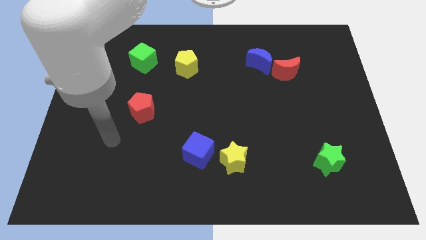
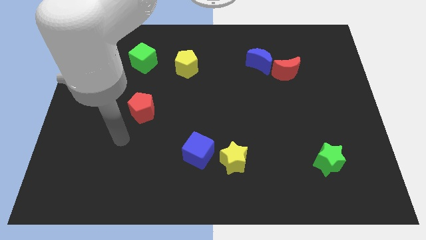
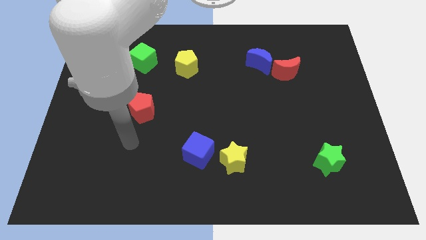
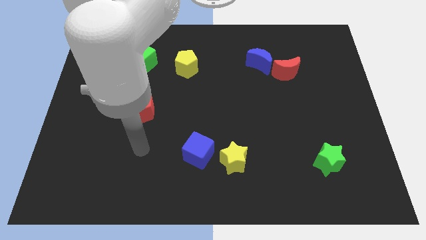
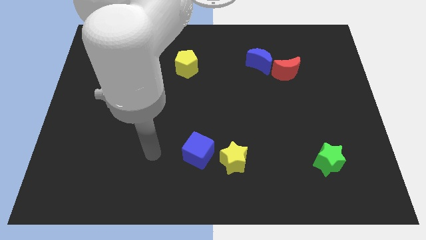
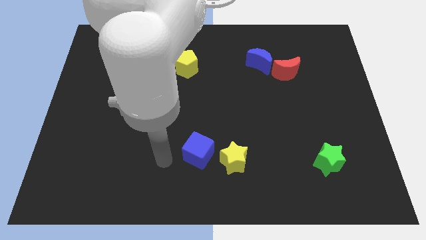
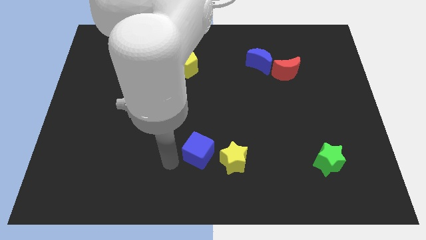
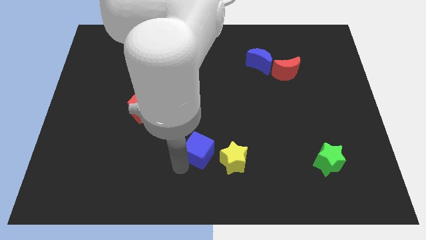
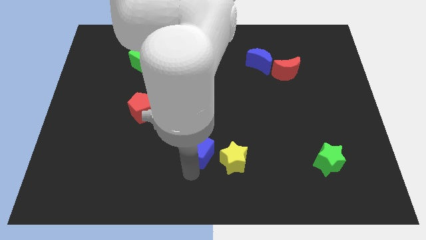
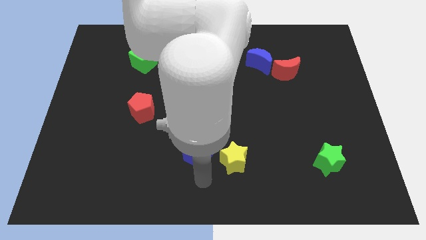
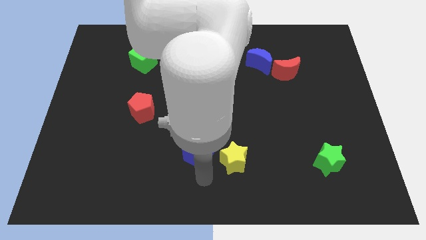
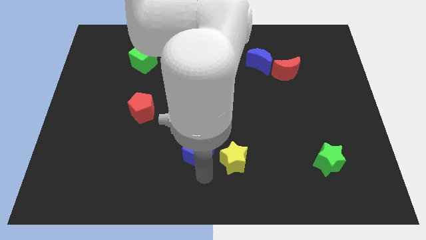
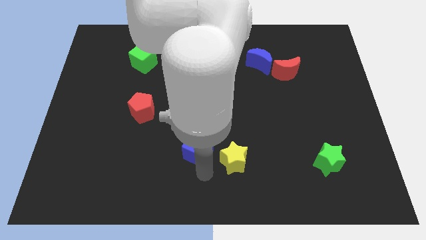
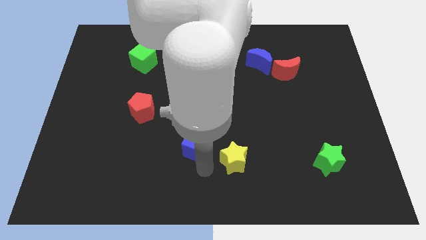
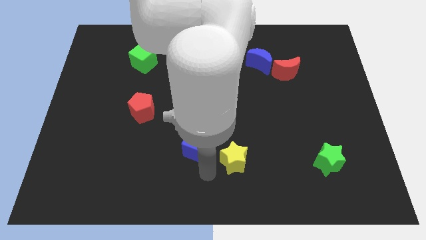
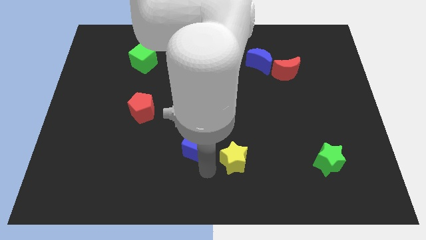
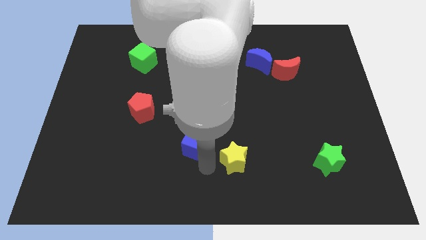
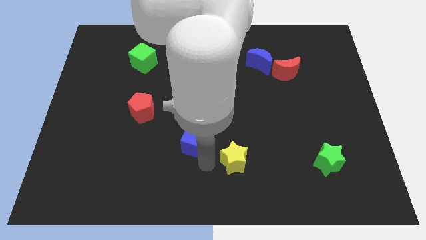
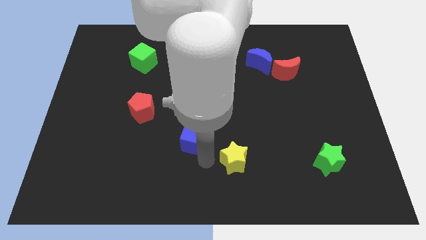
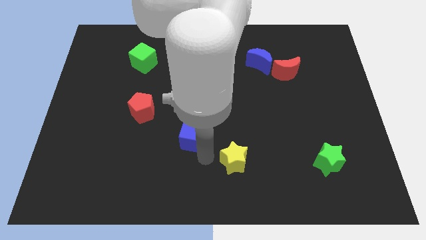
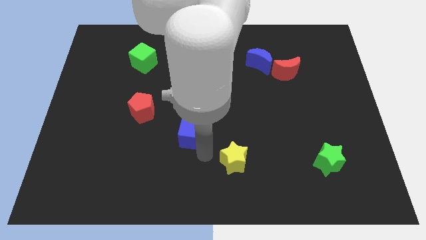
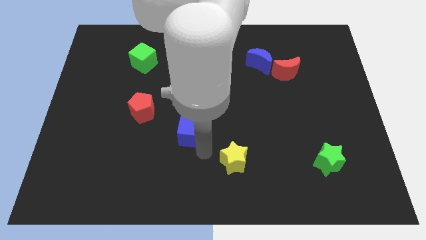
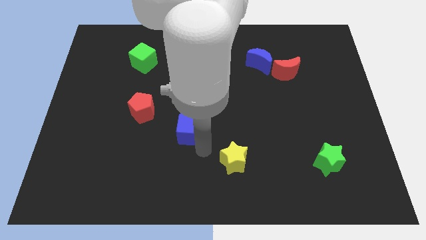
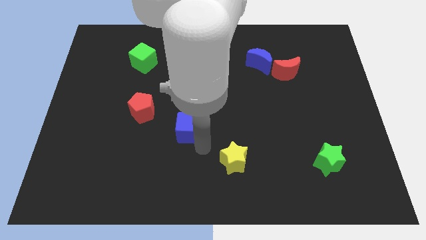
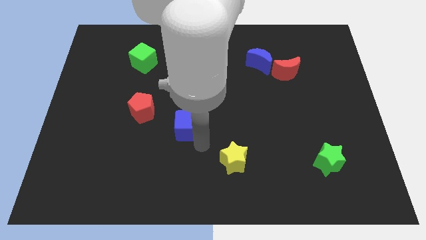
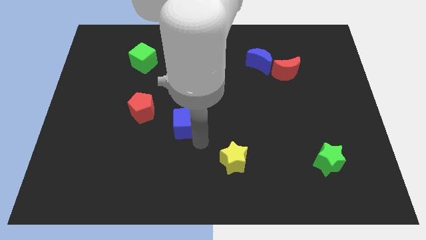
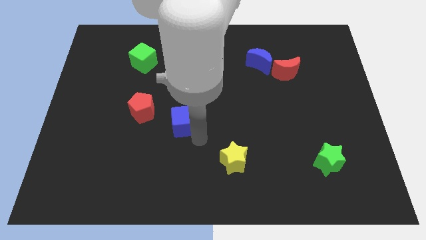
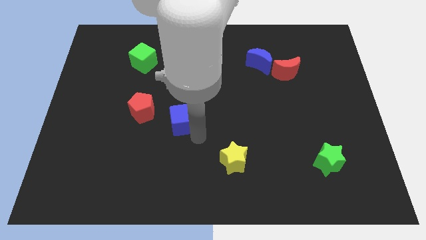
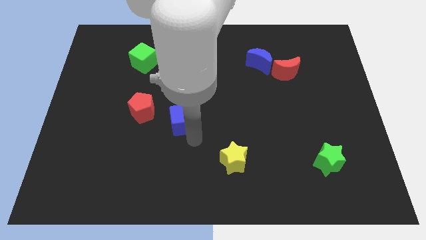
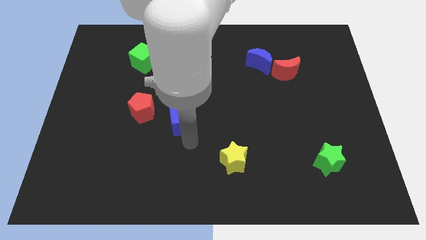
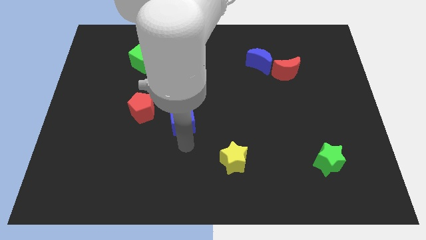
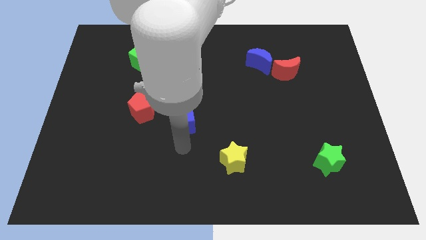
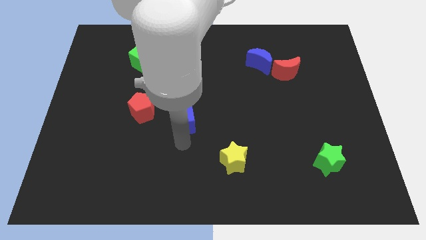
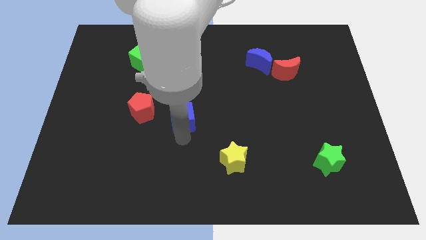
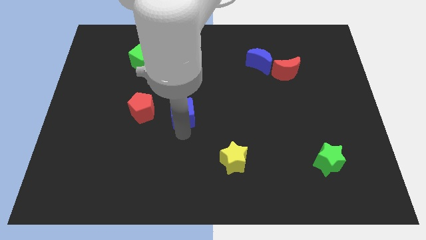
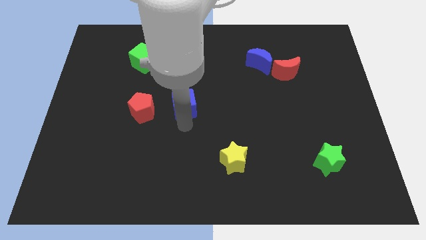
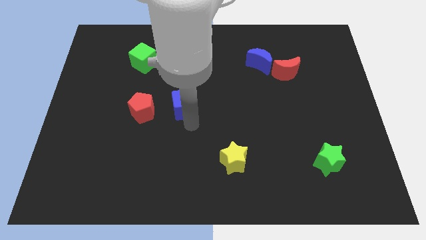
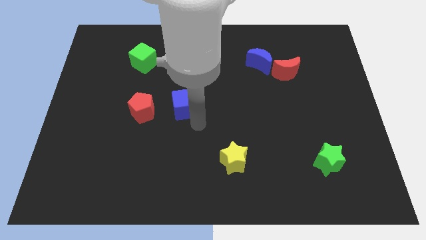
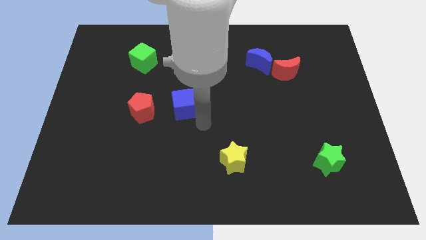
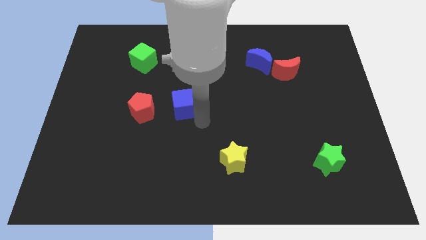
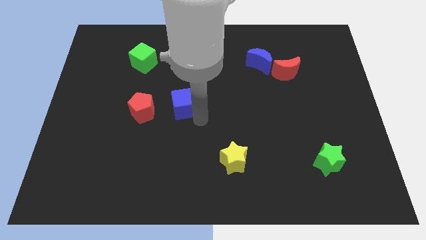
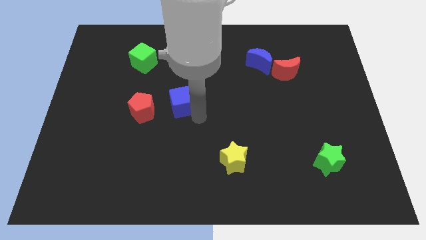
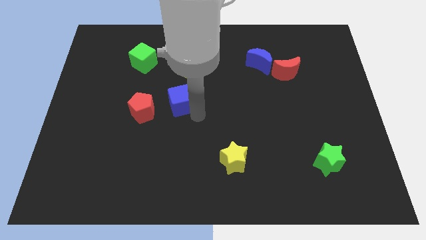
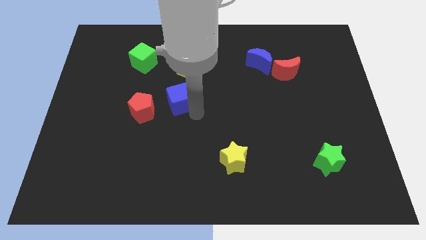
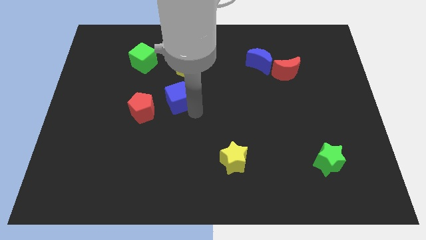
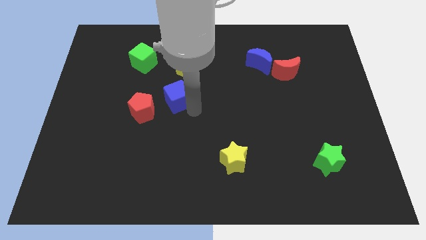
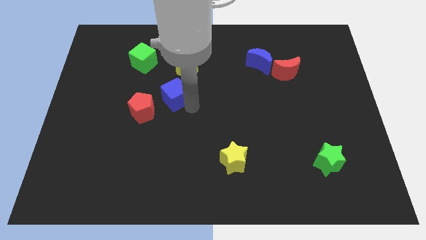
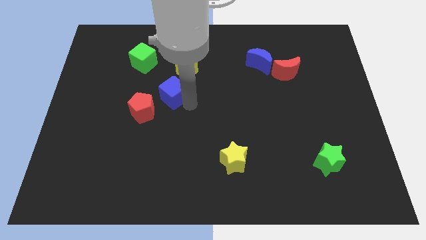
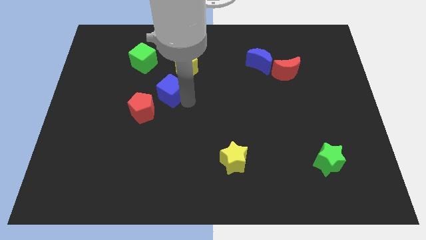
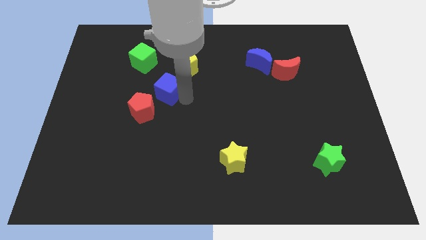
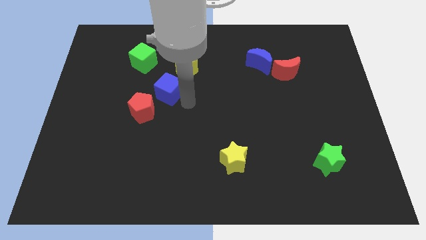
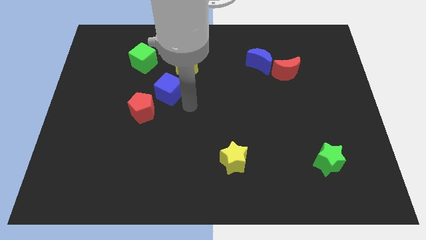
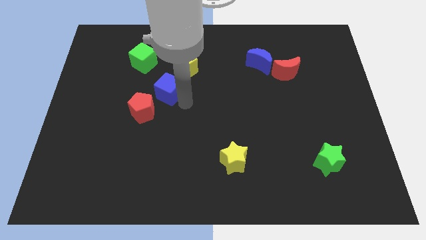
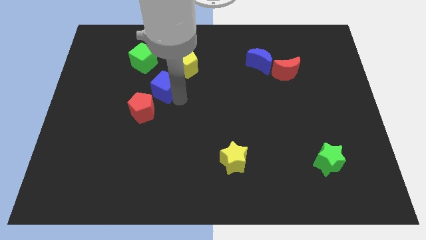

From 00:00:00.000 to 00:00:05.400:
move the blue cube to the top of the red pentagon

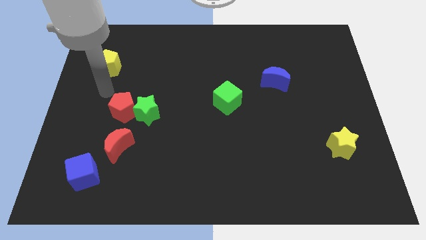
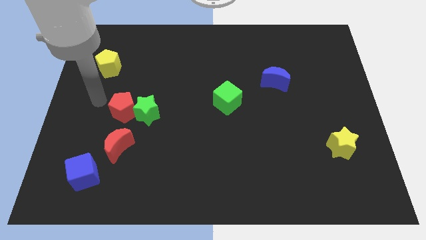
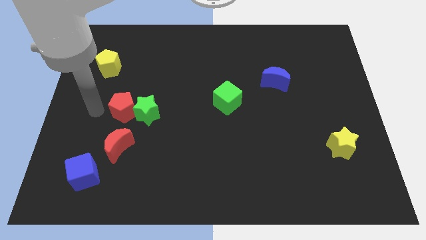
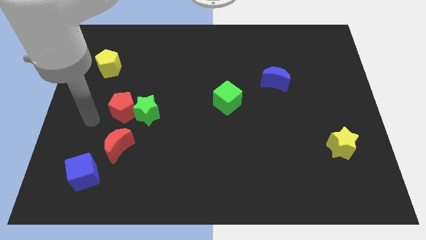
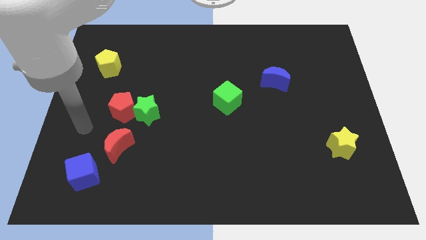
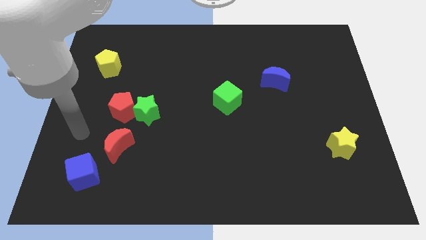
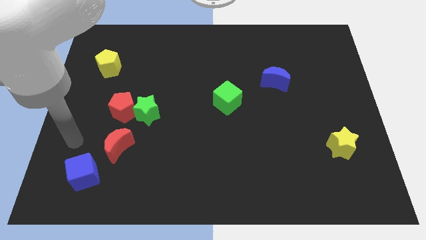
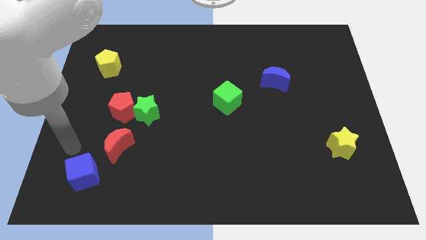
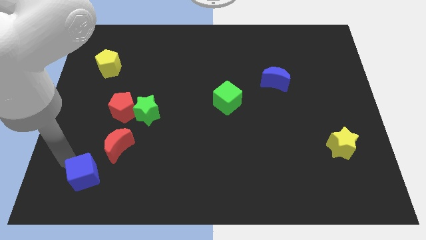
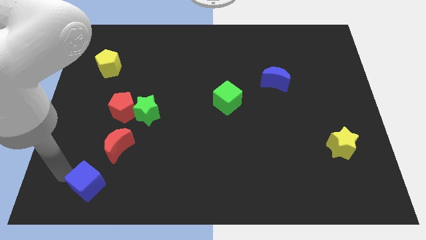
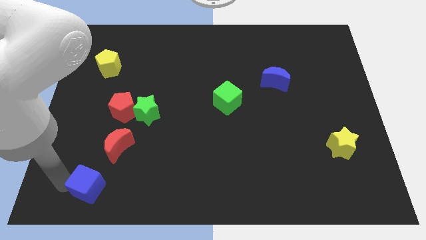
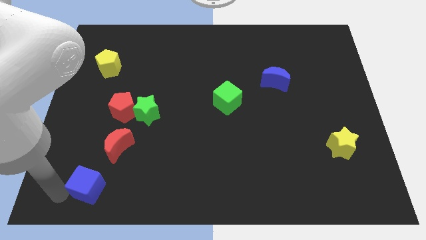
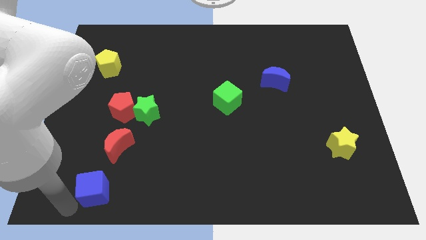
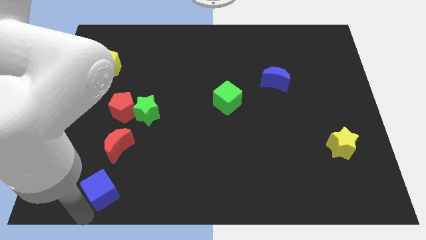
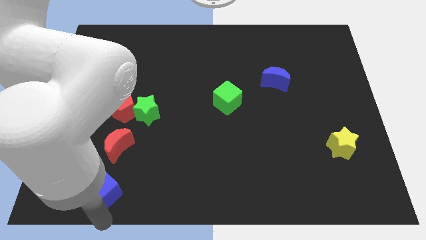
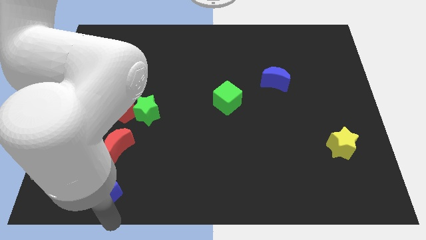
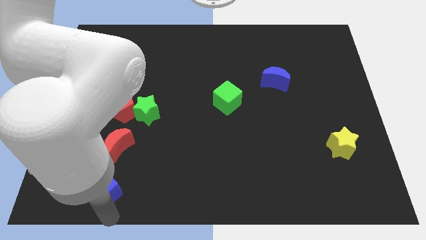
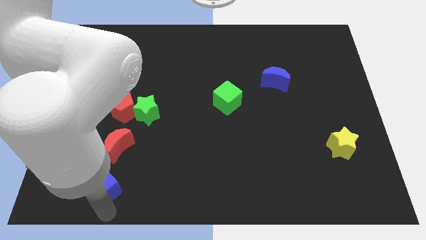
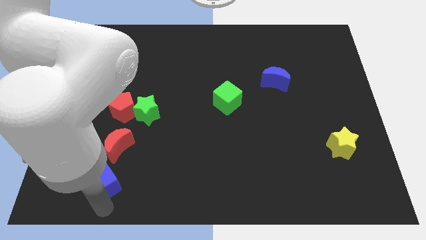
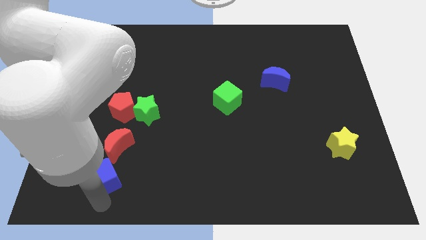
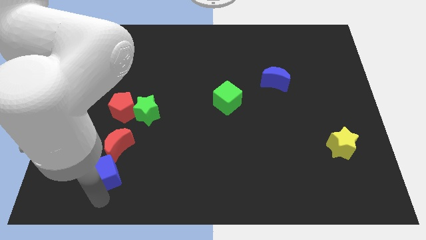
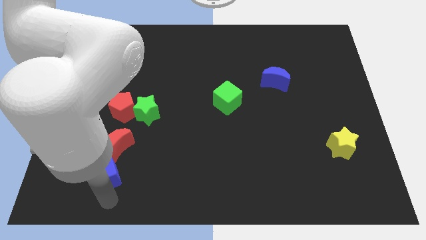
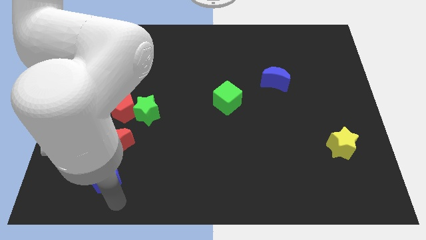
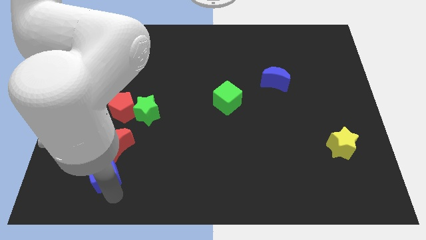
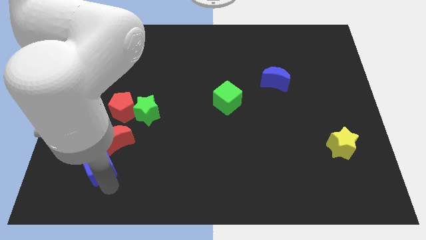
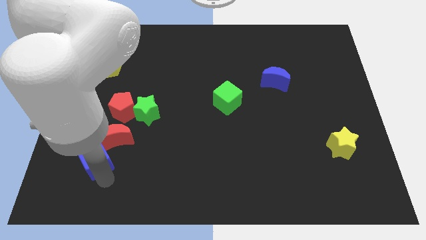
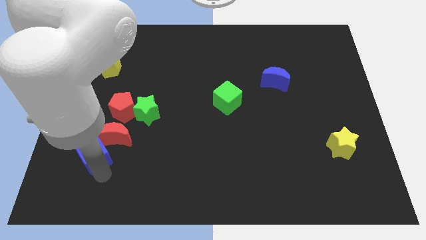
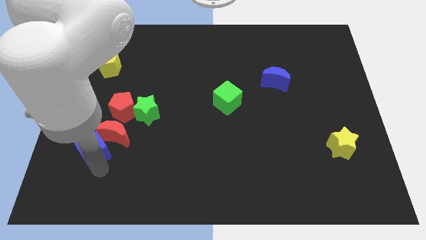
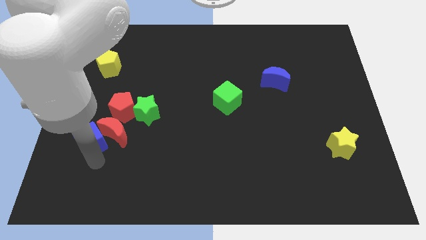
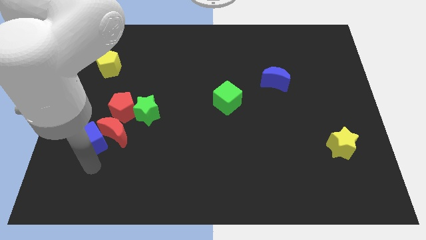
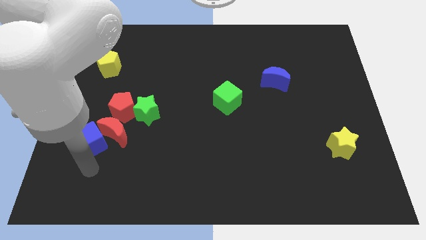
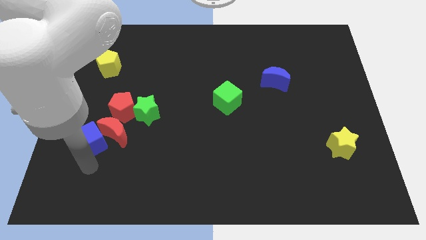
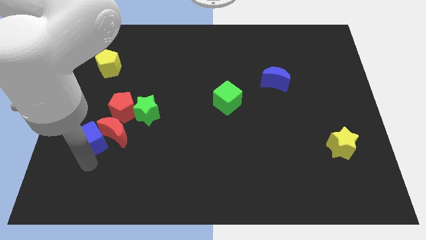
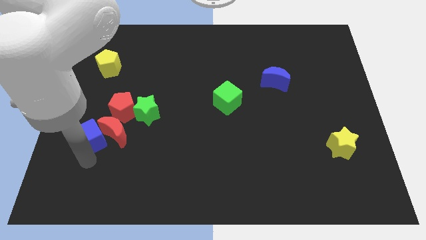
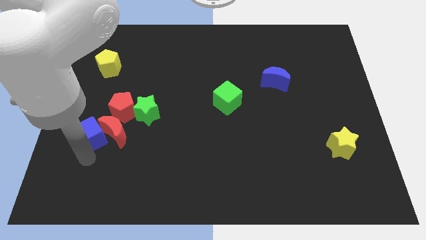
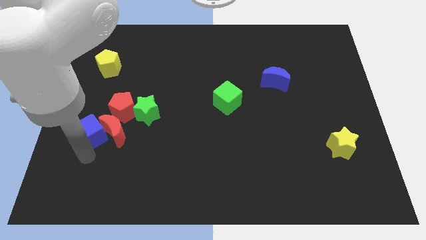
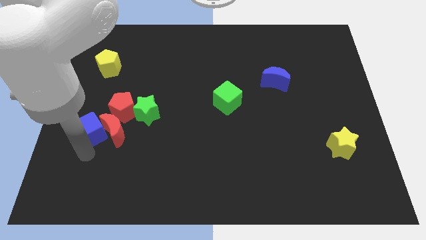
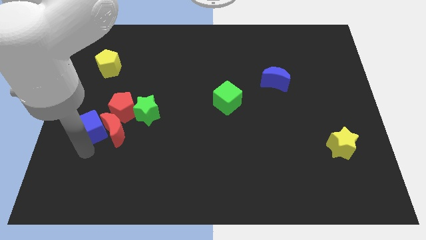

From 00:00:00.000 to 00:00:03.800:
move the blue cube to the left of the green star
